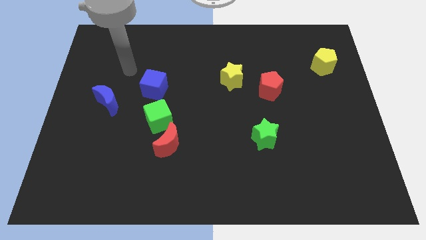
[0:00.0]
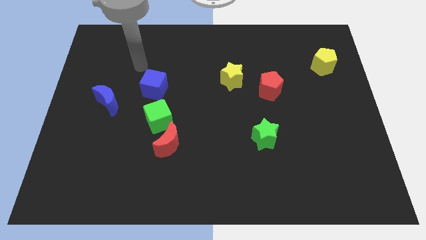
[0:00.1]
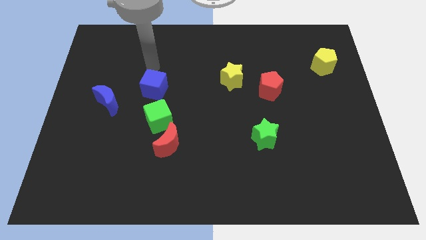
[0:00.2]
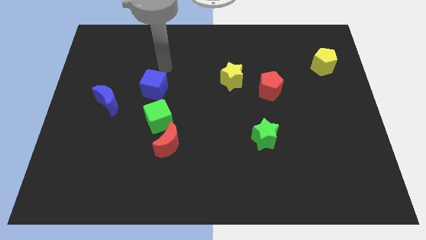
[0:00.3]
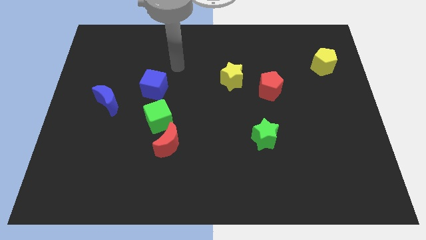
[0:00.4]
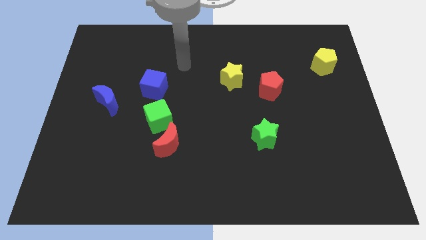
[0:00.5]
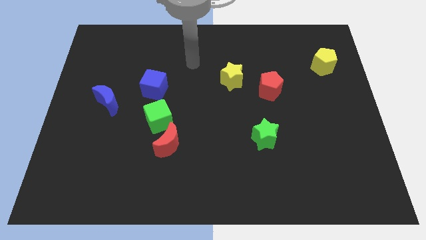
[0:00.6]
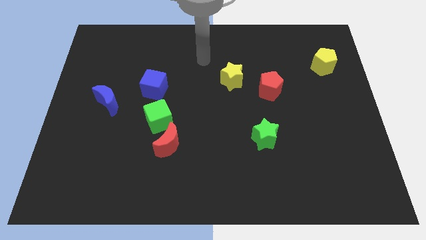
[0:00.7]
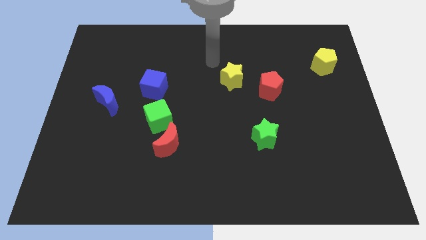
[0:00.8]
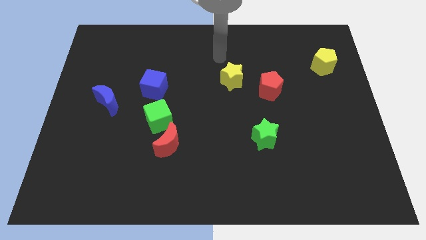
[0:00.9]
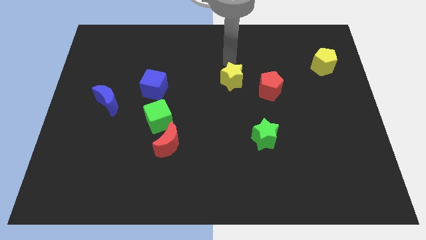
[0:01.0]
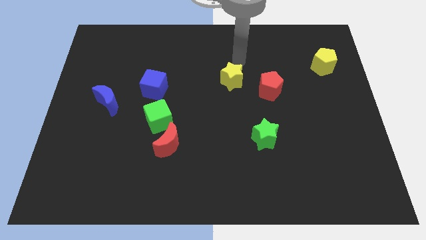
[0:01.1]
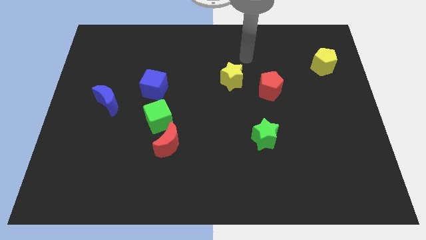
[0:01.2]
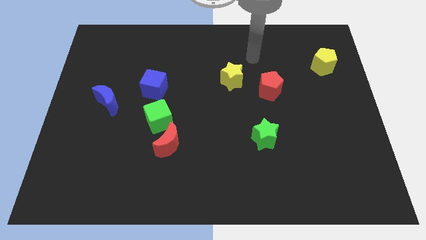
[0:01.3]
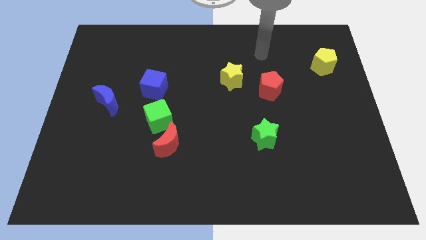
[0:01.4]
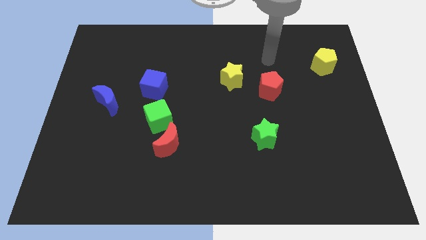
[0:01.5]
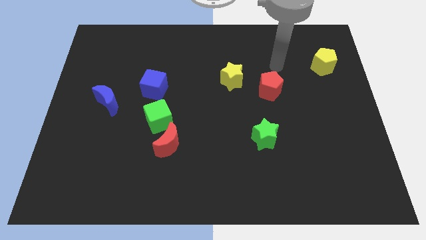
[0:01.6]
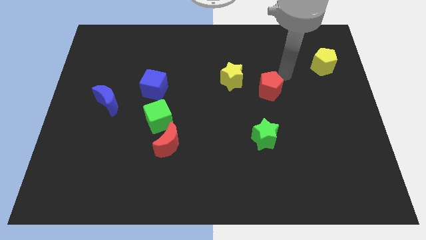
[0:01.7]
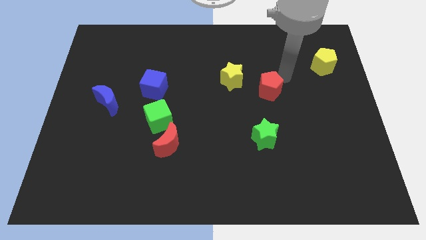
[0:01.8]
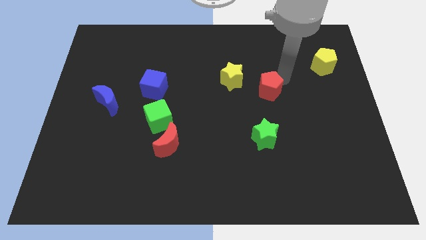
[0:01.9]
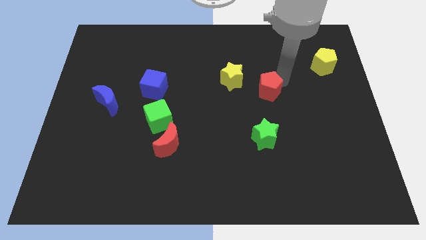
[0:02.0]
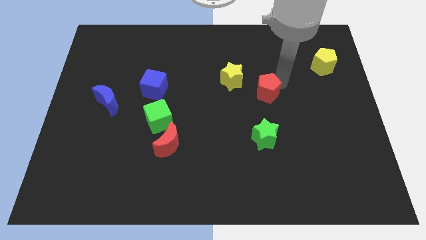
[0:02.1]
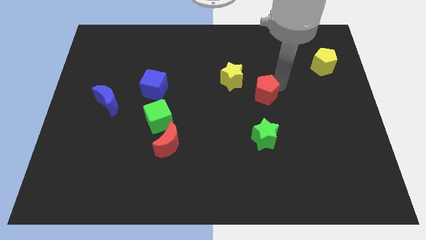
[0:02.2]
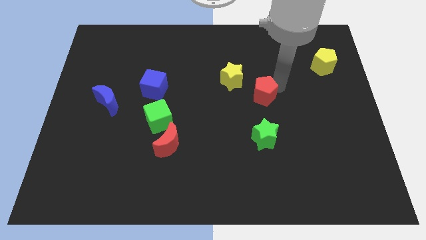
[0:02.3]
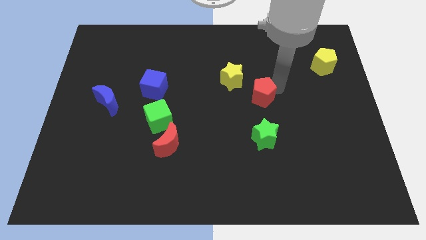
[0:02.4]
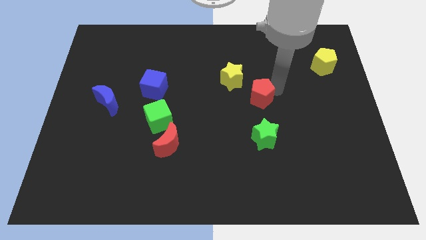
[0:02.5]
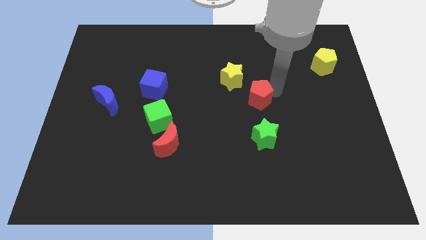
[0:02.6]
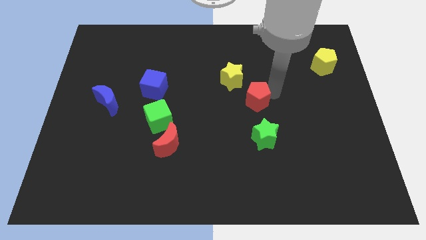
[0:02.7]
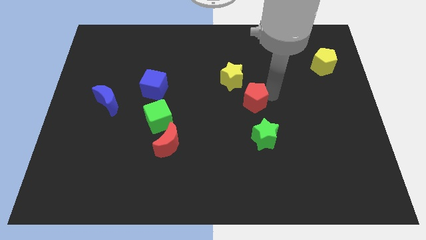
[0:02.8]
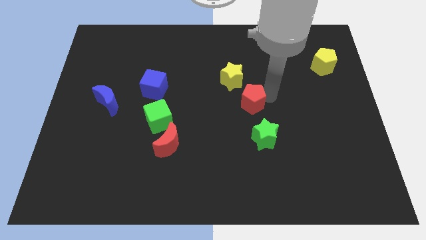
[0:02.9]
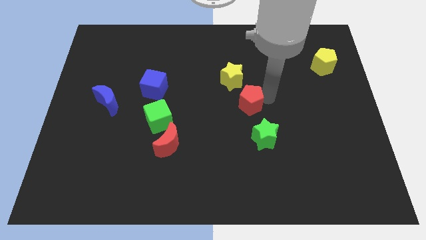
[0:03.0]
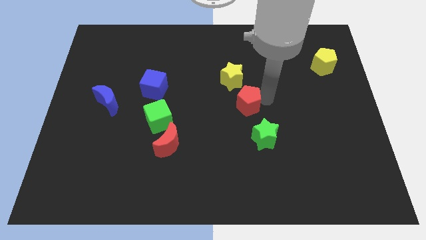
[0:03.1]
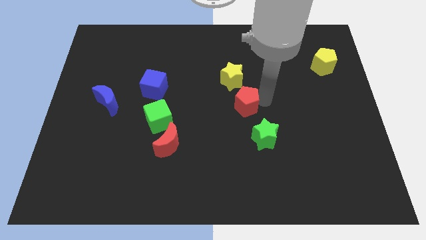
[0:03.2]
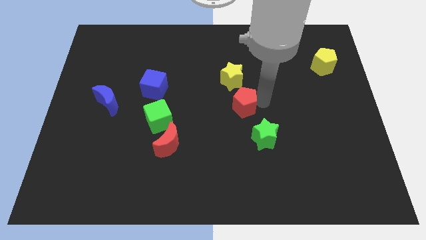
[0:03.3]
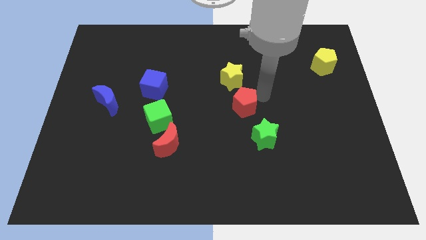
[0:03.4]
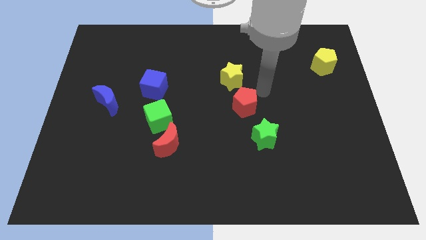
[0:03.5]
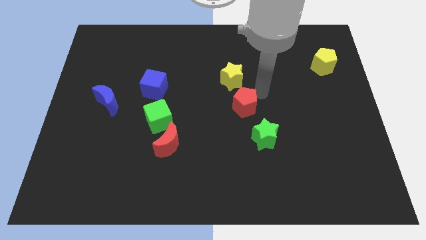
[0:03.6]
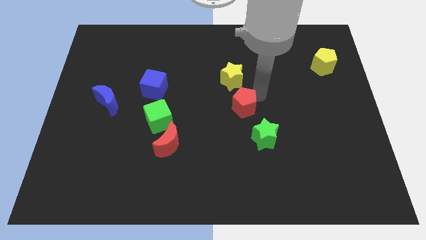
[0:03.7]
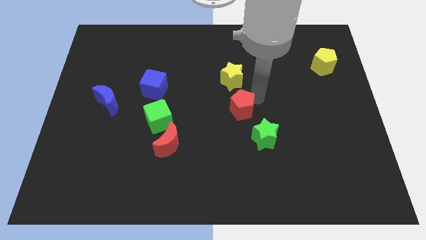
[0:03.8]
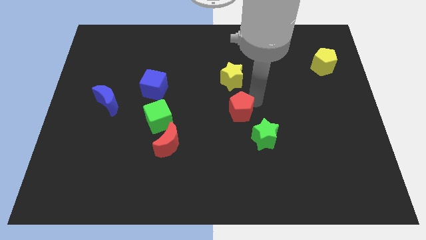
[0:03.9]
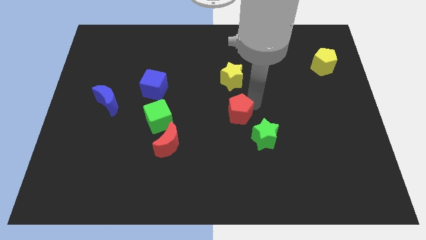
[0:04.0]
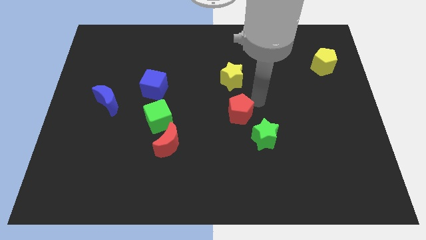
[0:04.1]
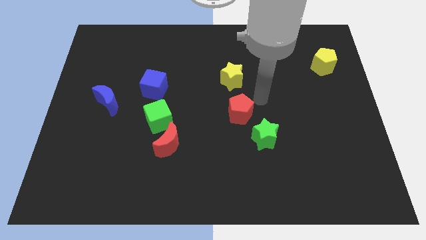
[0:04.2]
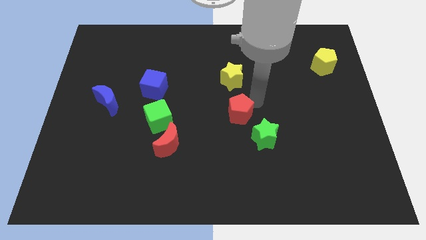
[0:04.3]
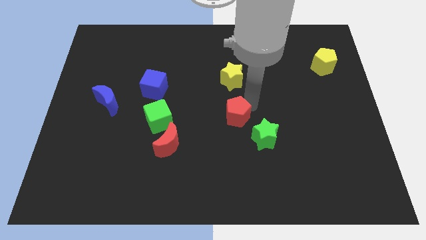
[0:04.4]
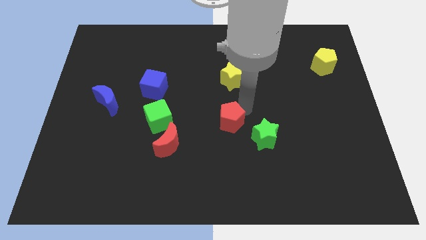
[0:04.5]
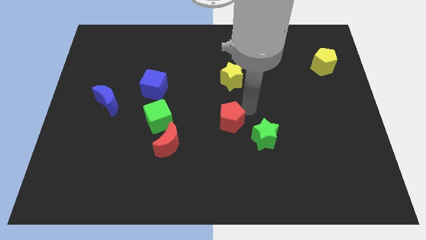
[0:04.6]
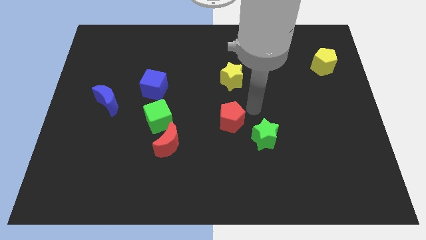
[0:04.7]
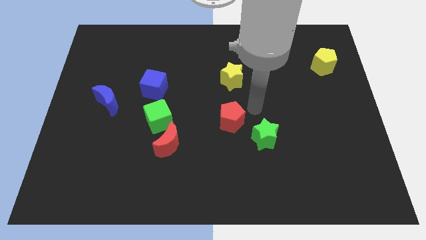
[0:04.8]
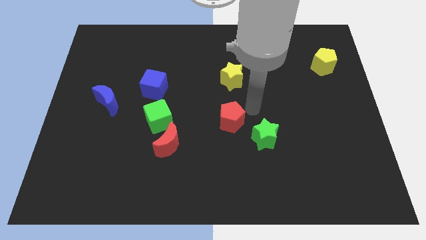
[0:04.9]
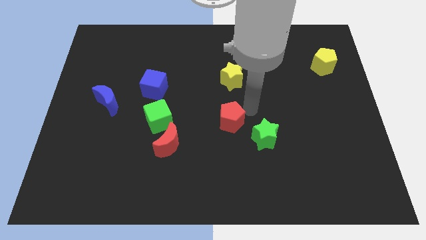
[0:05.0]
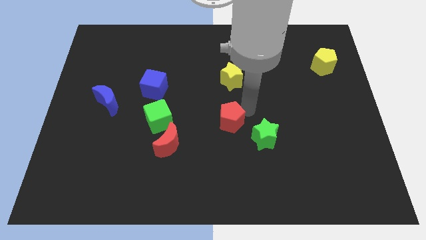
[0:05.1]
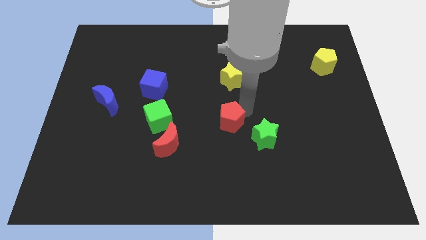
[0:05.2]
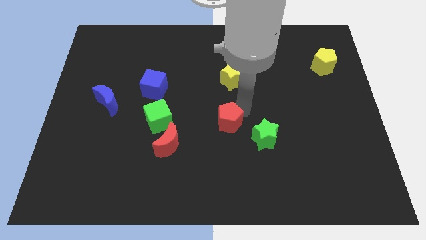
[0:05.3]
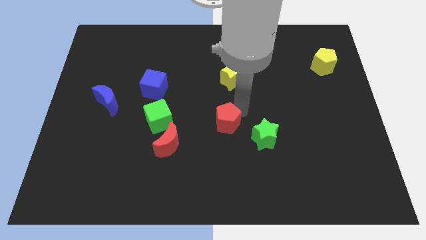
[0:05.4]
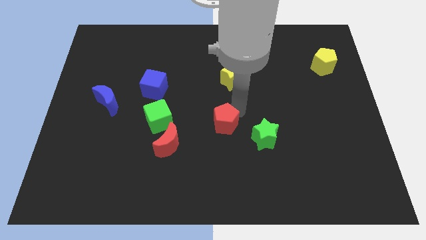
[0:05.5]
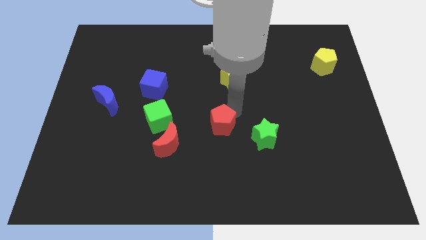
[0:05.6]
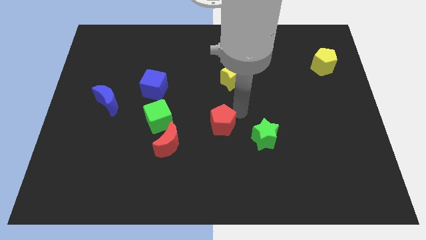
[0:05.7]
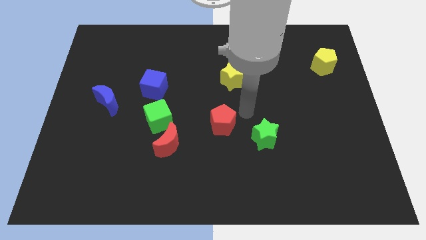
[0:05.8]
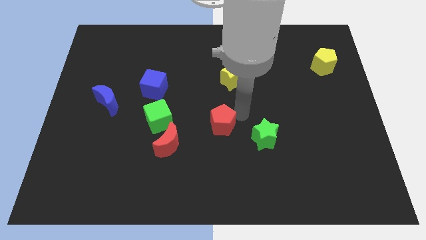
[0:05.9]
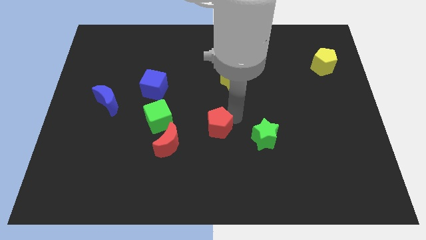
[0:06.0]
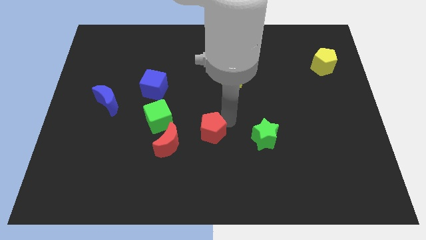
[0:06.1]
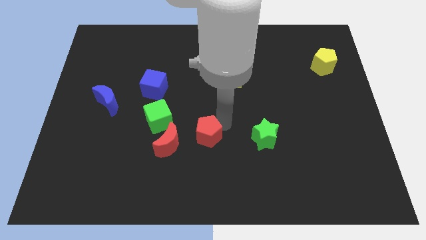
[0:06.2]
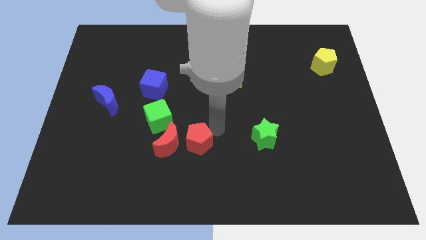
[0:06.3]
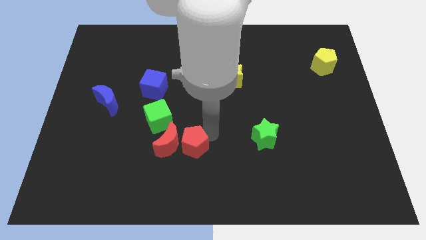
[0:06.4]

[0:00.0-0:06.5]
push the red pentagon towards the red moon

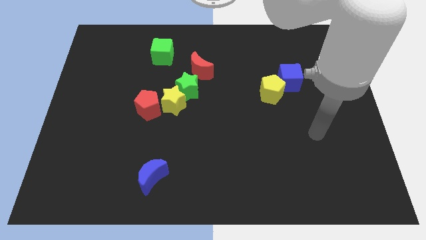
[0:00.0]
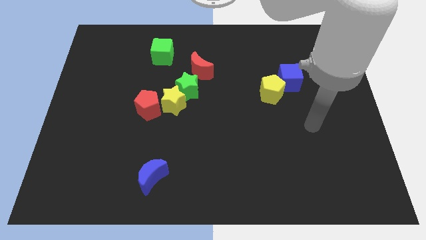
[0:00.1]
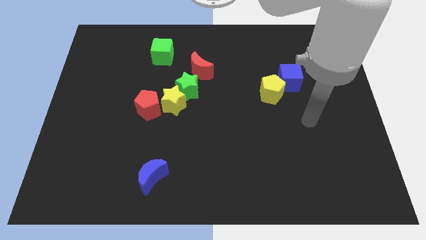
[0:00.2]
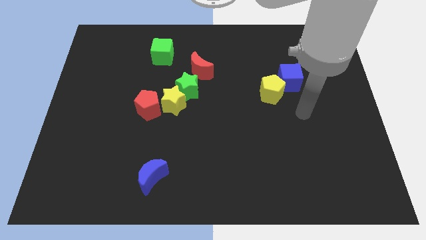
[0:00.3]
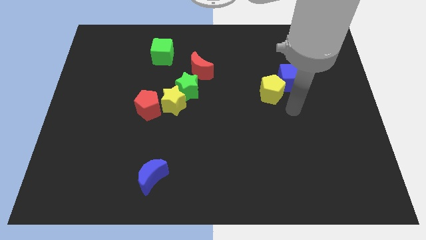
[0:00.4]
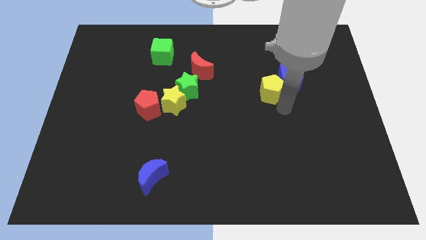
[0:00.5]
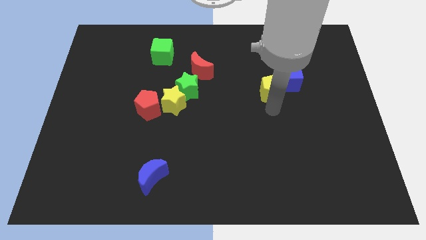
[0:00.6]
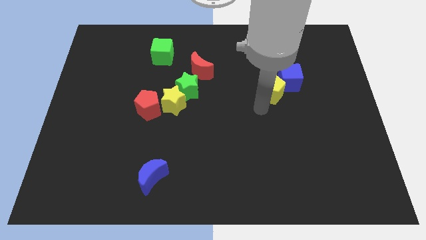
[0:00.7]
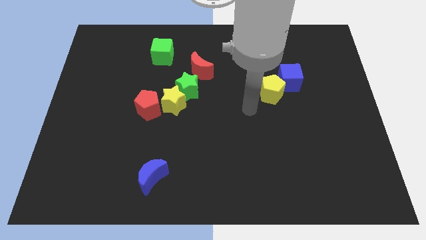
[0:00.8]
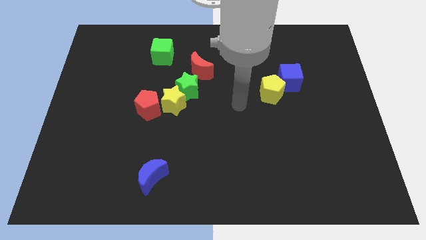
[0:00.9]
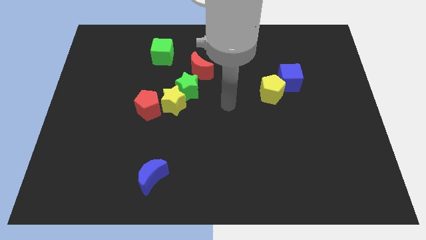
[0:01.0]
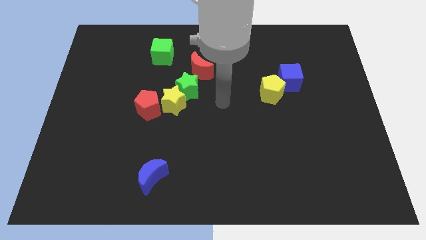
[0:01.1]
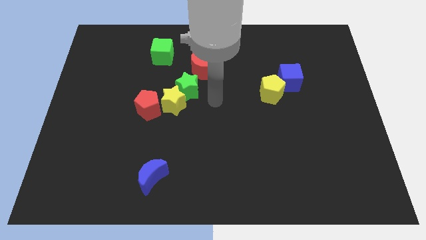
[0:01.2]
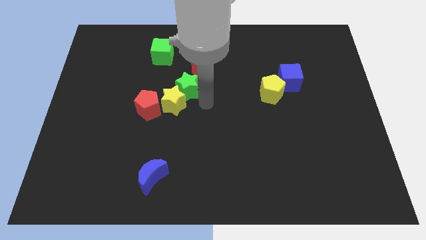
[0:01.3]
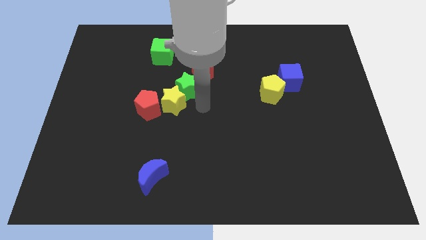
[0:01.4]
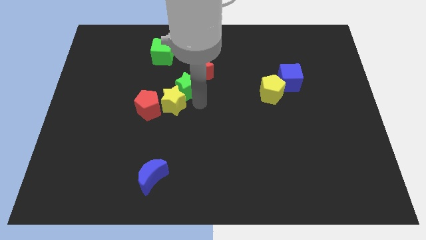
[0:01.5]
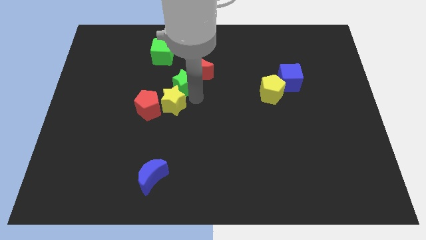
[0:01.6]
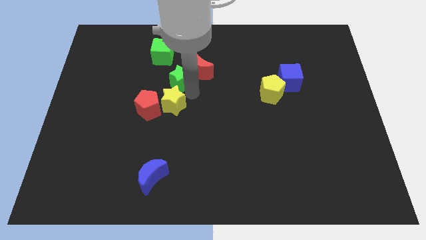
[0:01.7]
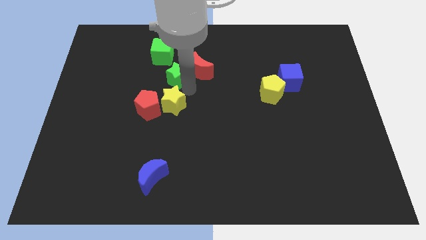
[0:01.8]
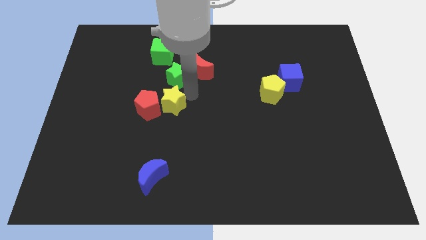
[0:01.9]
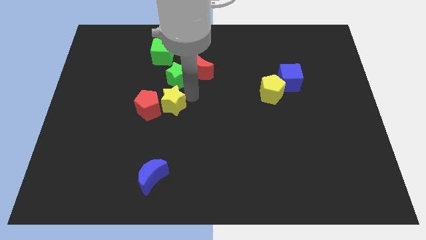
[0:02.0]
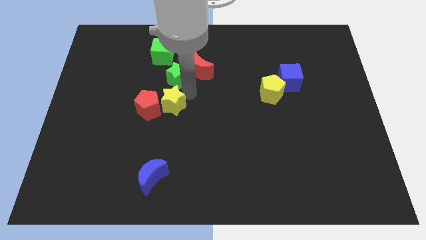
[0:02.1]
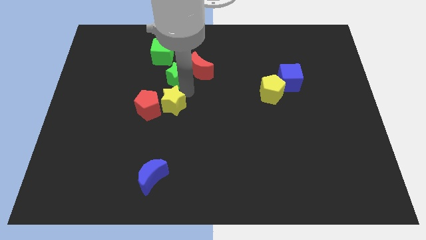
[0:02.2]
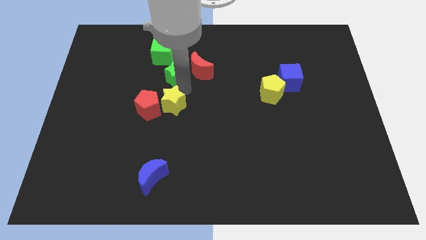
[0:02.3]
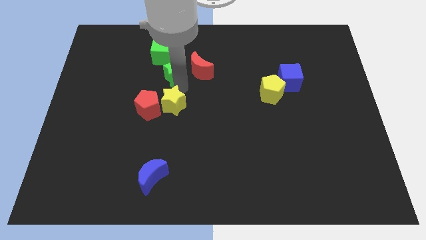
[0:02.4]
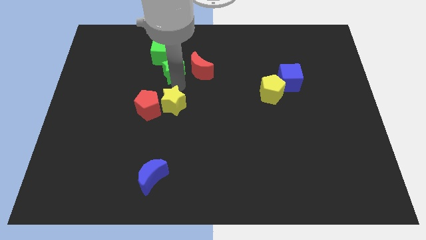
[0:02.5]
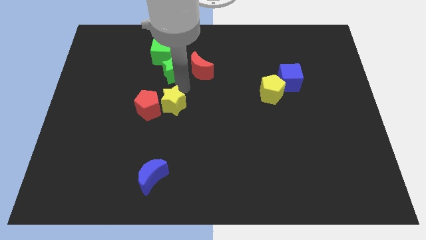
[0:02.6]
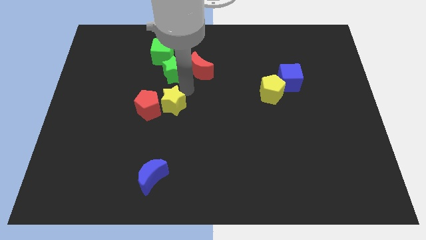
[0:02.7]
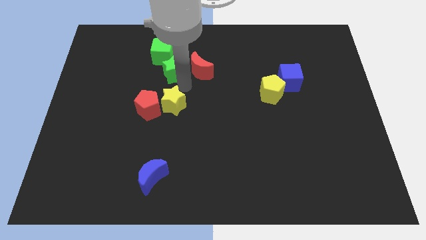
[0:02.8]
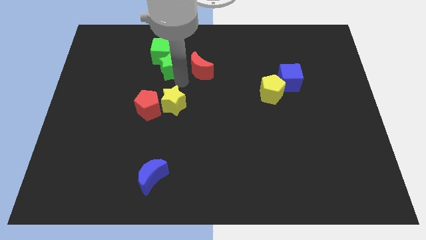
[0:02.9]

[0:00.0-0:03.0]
slide the green star towards the green cube
